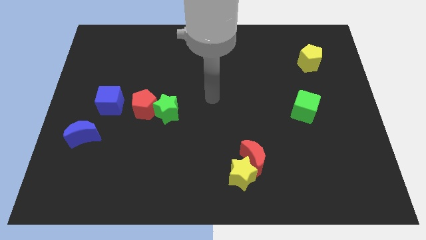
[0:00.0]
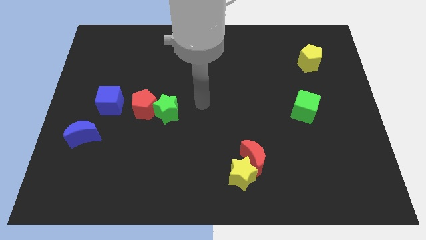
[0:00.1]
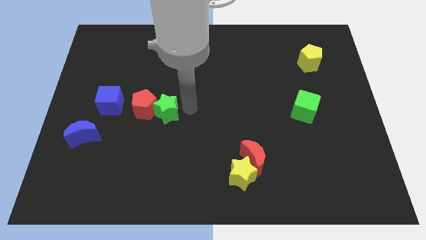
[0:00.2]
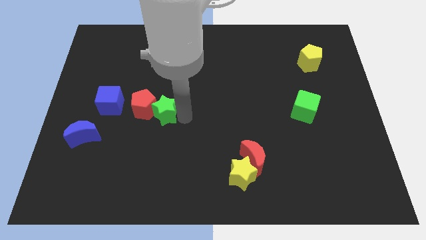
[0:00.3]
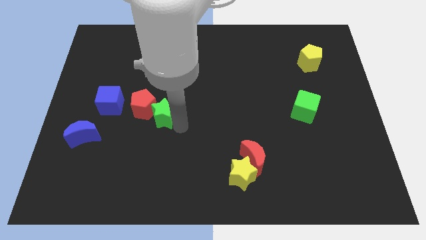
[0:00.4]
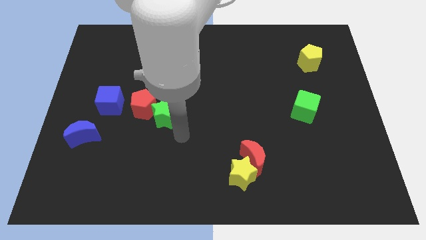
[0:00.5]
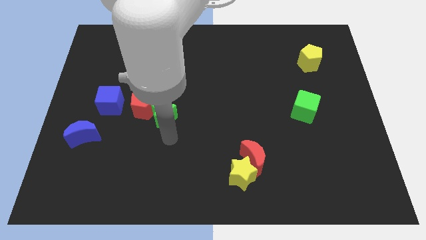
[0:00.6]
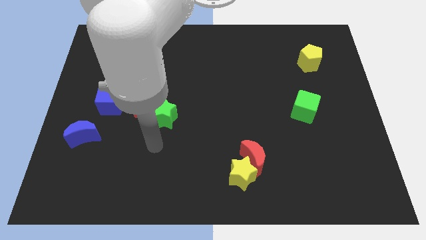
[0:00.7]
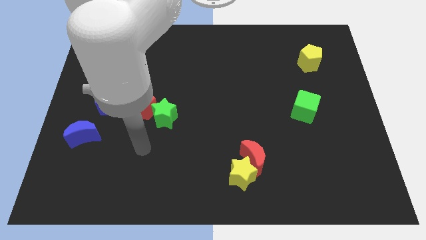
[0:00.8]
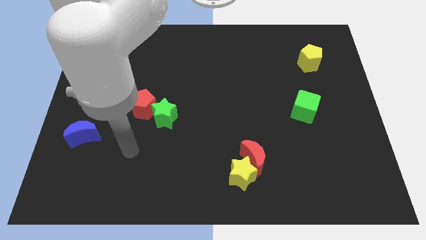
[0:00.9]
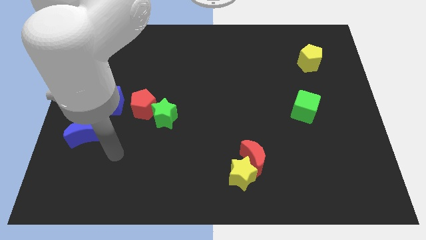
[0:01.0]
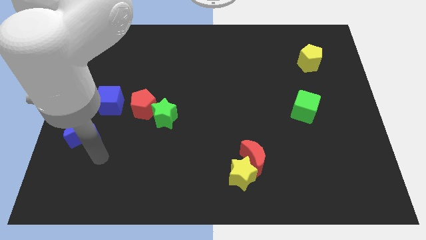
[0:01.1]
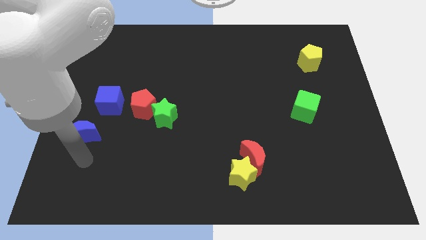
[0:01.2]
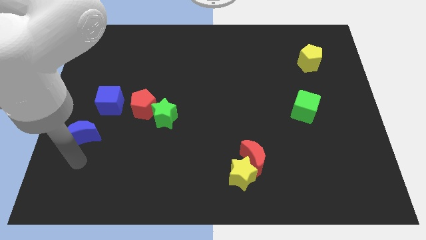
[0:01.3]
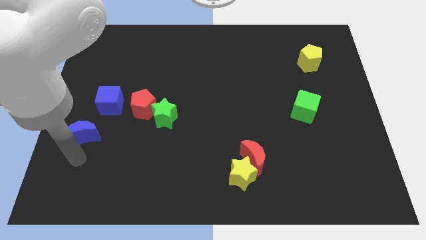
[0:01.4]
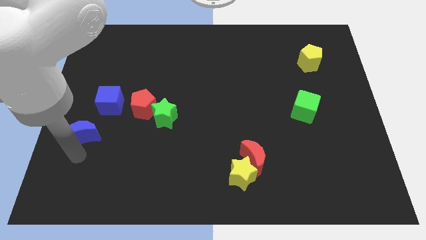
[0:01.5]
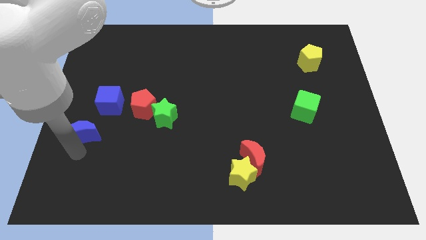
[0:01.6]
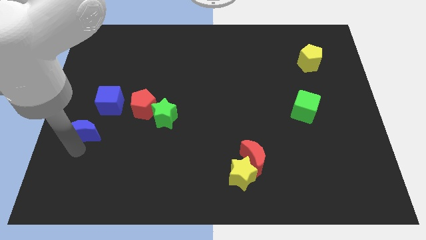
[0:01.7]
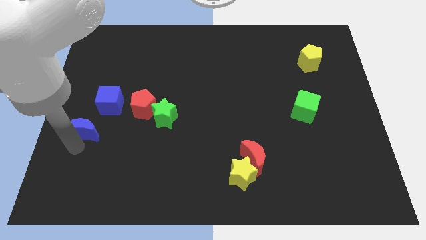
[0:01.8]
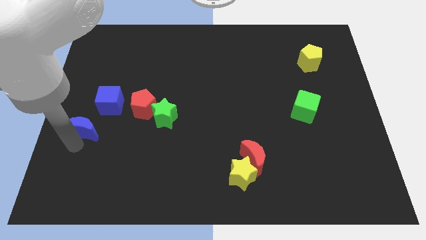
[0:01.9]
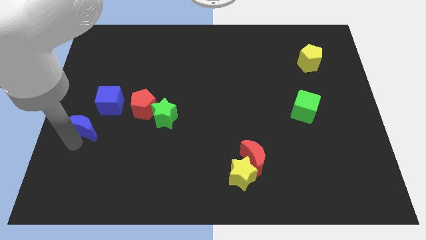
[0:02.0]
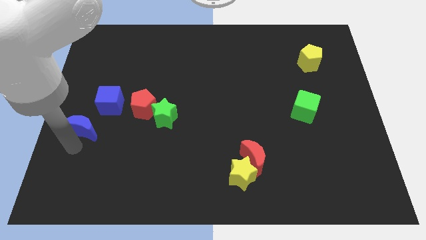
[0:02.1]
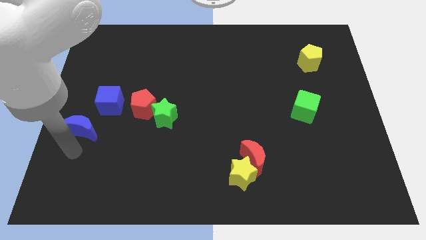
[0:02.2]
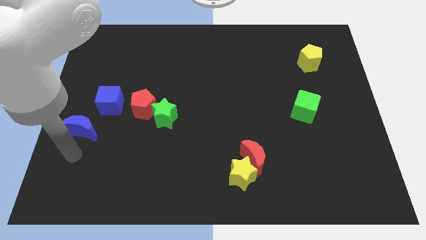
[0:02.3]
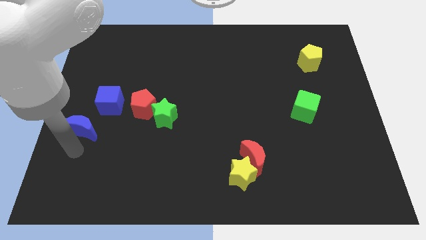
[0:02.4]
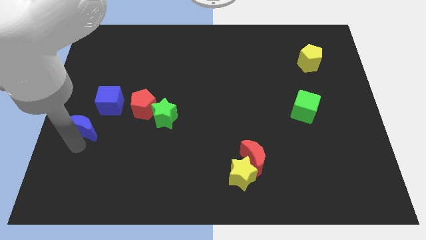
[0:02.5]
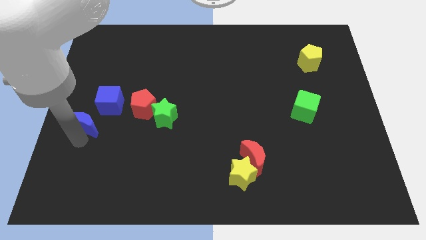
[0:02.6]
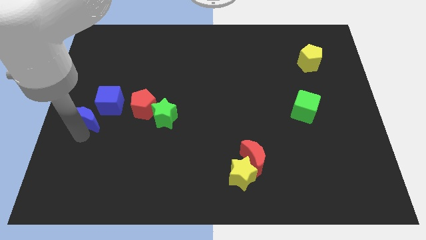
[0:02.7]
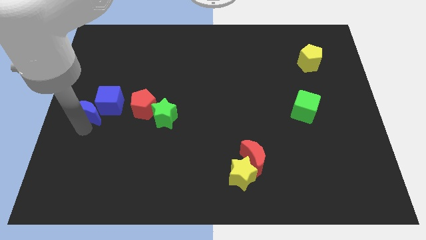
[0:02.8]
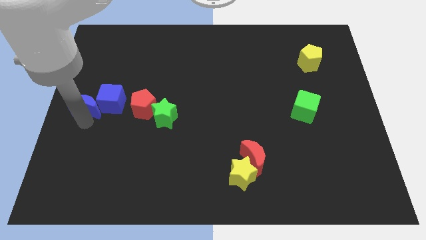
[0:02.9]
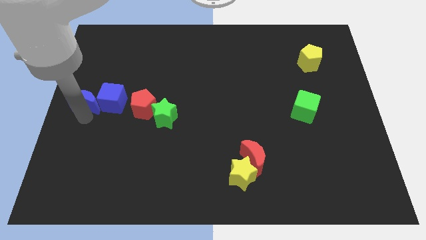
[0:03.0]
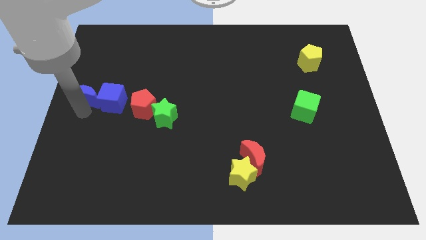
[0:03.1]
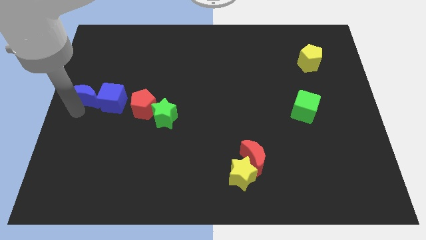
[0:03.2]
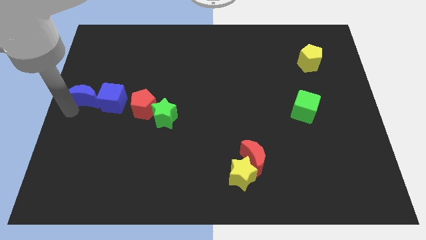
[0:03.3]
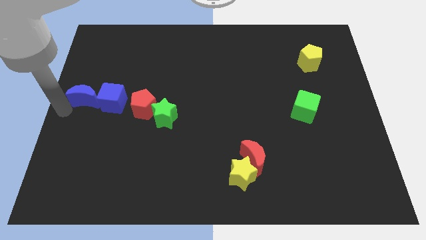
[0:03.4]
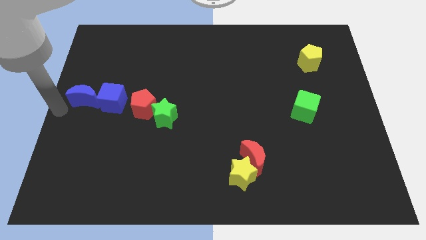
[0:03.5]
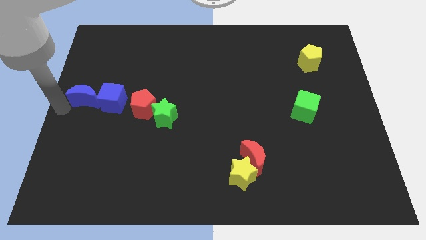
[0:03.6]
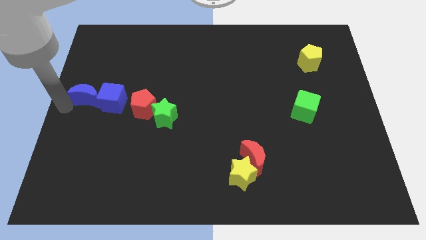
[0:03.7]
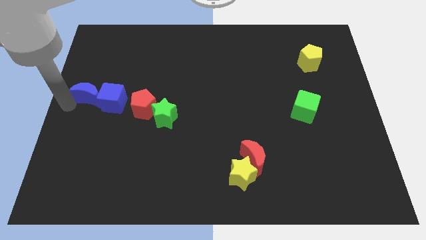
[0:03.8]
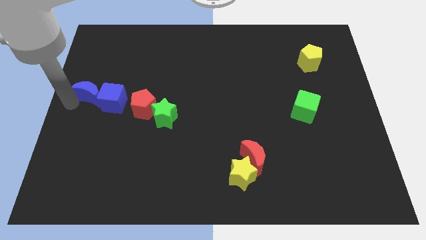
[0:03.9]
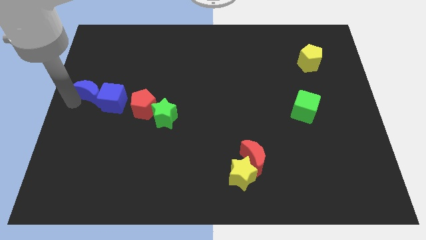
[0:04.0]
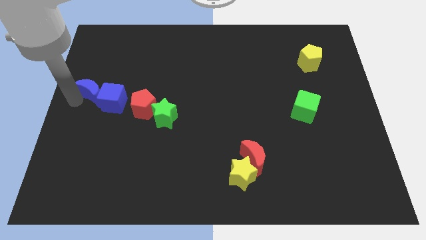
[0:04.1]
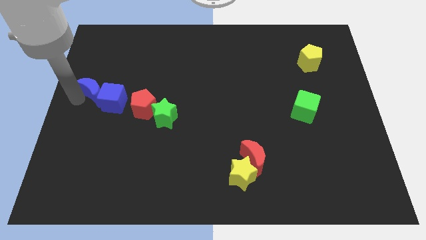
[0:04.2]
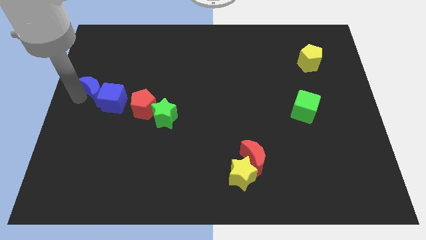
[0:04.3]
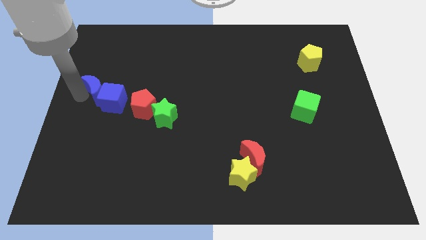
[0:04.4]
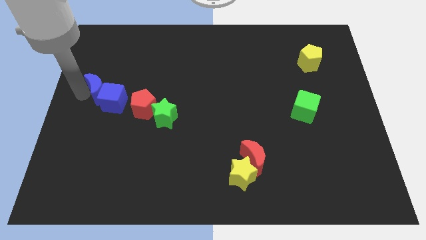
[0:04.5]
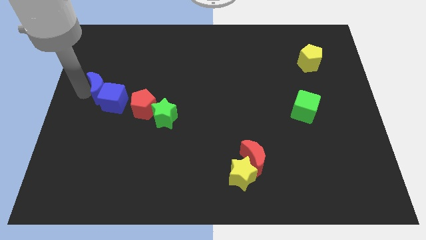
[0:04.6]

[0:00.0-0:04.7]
slide the blue moon a little up and then right

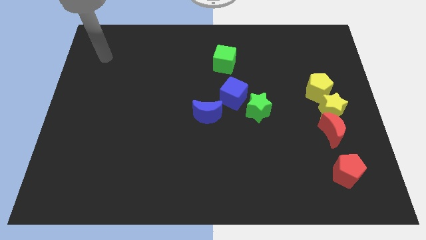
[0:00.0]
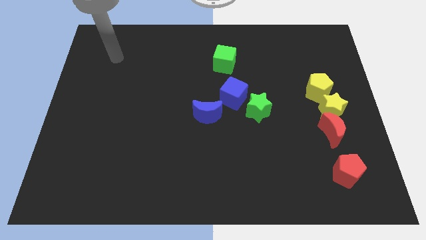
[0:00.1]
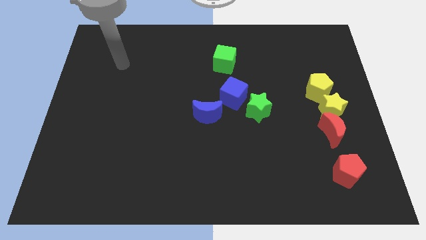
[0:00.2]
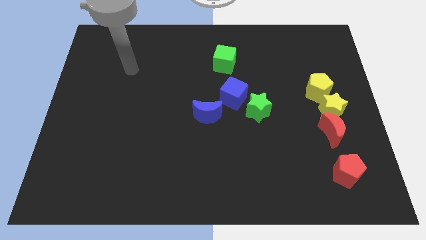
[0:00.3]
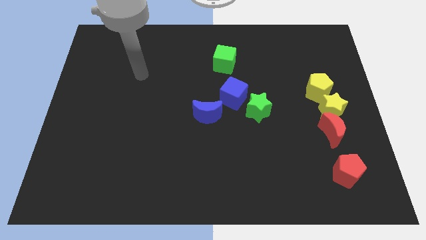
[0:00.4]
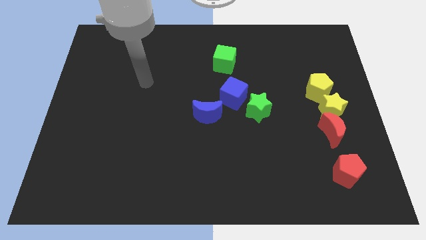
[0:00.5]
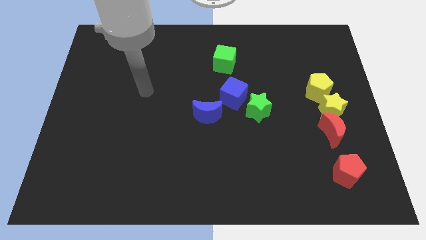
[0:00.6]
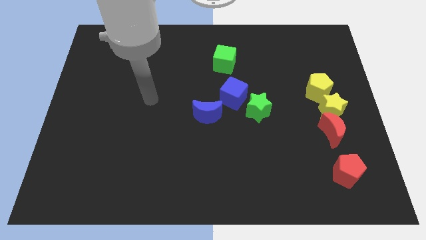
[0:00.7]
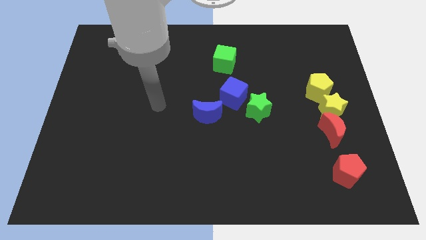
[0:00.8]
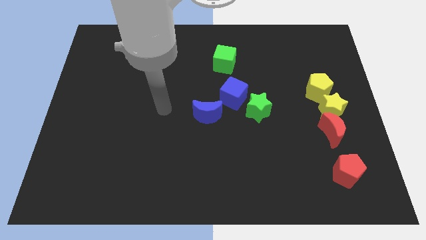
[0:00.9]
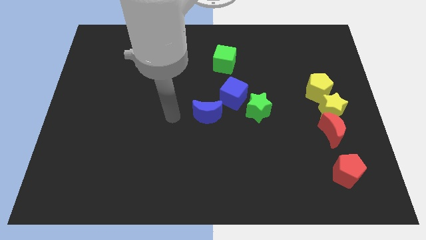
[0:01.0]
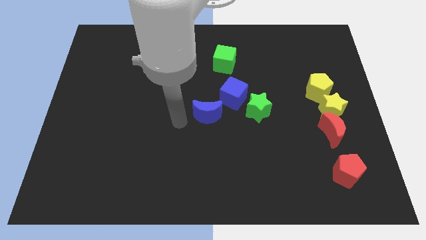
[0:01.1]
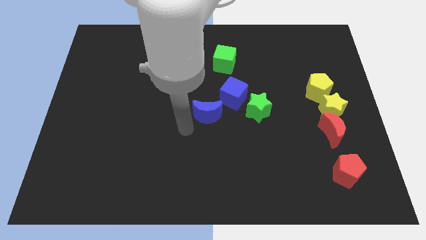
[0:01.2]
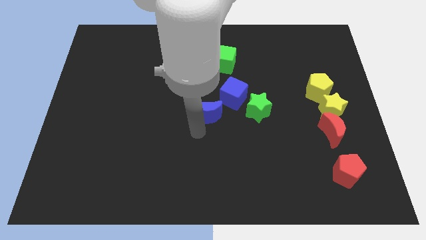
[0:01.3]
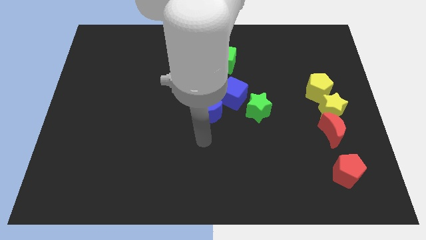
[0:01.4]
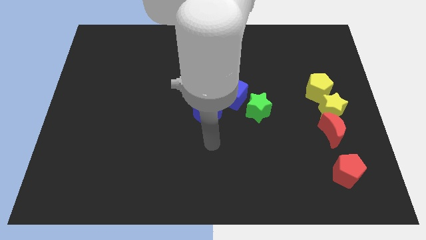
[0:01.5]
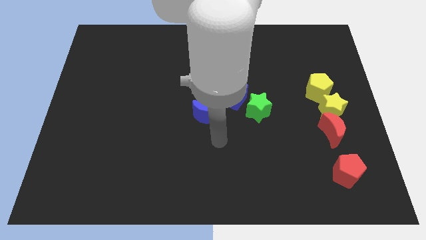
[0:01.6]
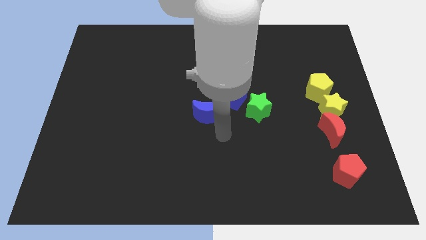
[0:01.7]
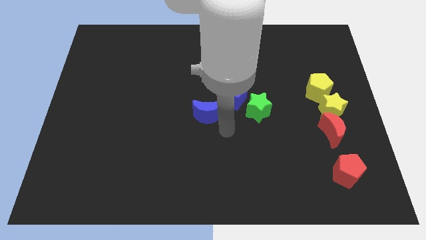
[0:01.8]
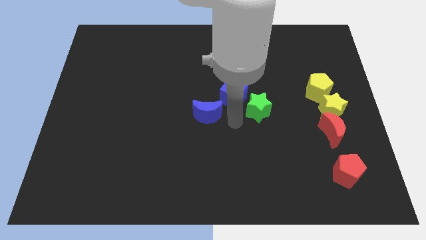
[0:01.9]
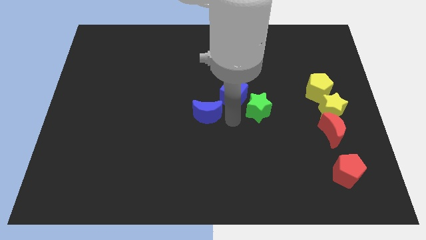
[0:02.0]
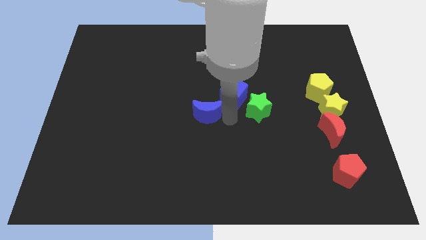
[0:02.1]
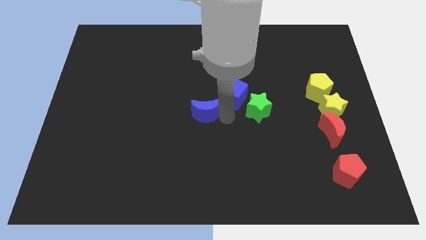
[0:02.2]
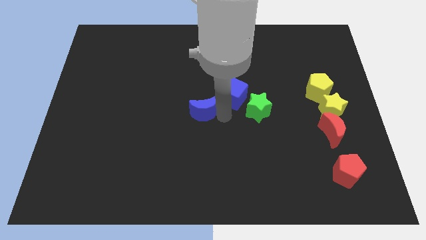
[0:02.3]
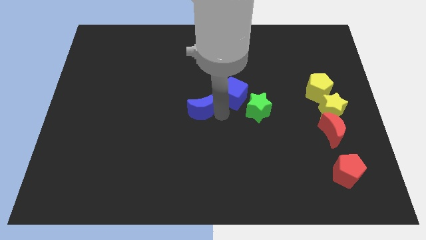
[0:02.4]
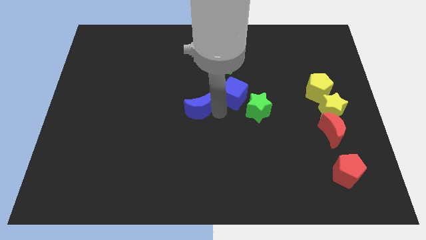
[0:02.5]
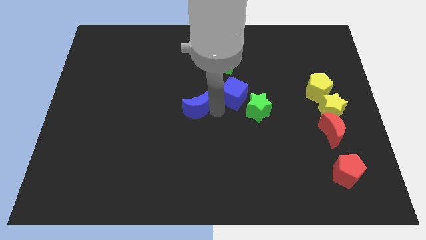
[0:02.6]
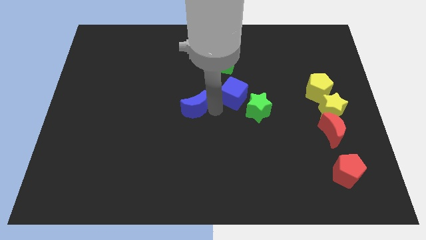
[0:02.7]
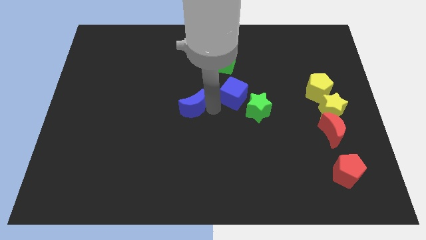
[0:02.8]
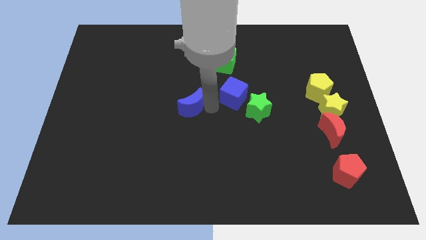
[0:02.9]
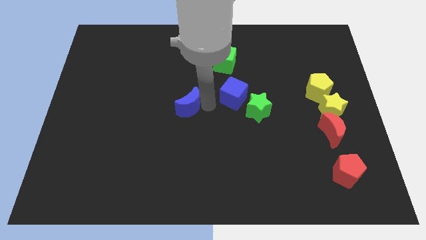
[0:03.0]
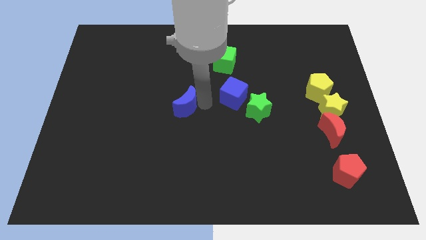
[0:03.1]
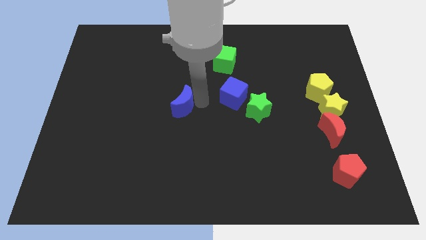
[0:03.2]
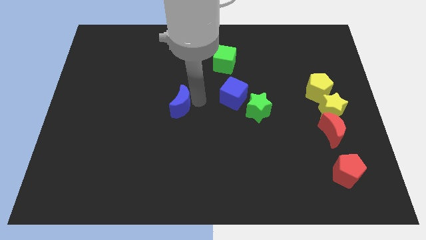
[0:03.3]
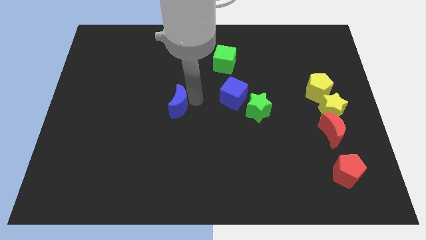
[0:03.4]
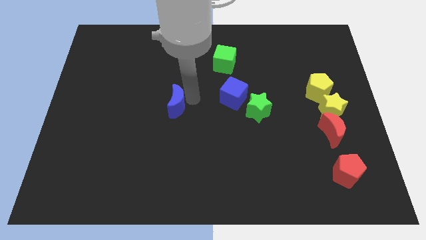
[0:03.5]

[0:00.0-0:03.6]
slightly push the blue moon to the left
